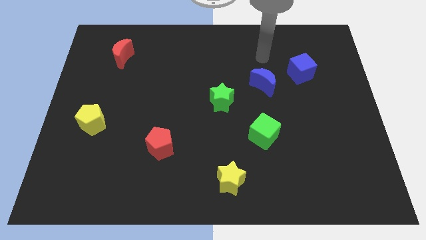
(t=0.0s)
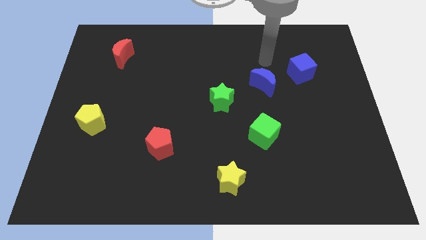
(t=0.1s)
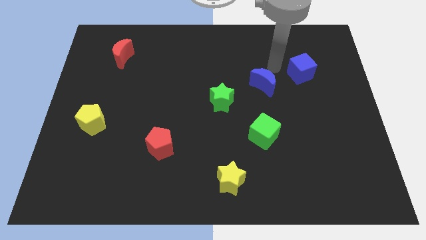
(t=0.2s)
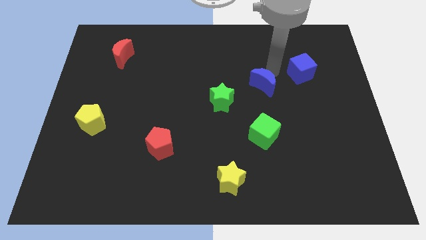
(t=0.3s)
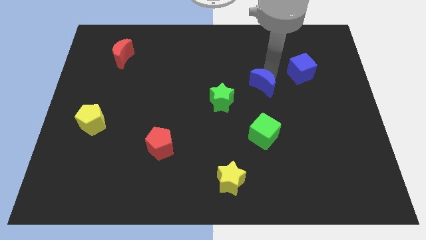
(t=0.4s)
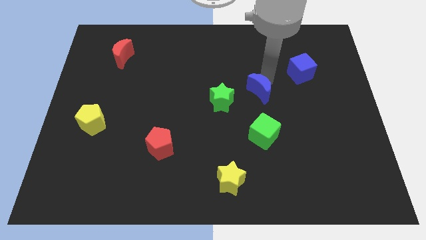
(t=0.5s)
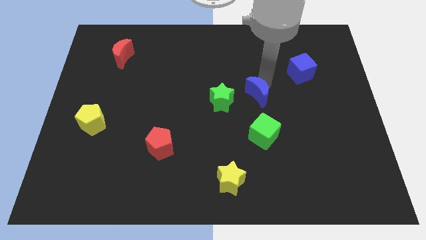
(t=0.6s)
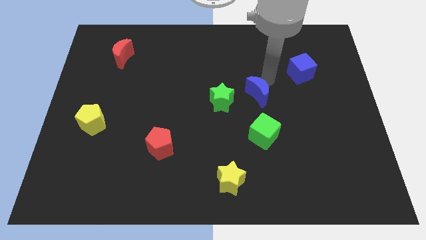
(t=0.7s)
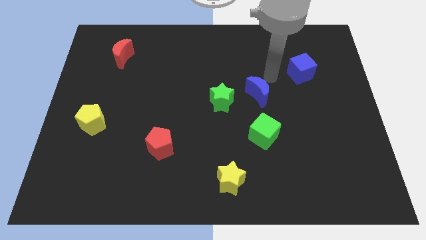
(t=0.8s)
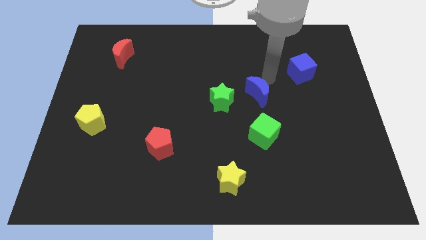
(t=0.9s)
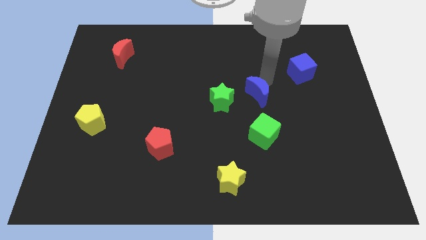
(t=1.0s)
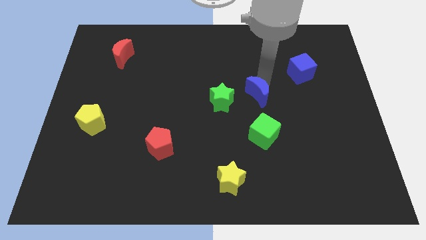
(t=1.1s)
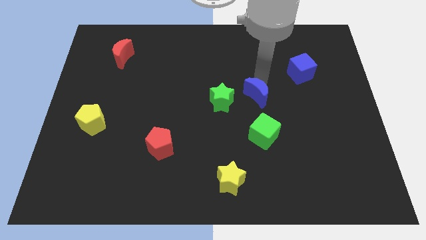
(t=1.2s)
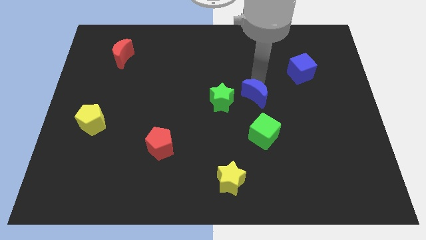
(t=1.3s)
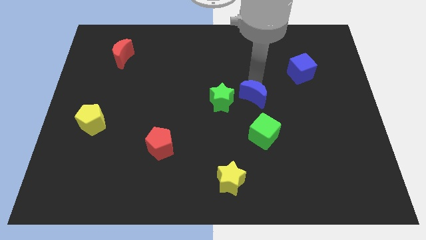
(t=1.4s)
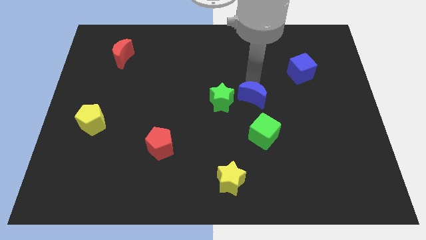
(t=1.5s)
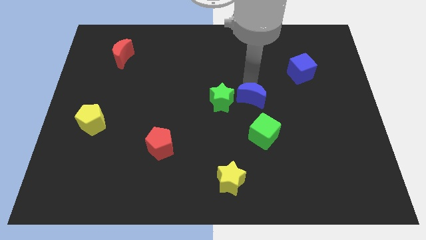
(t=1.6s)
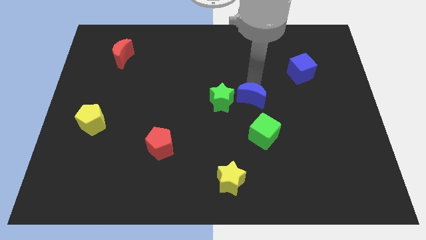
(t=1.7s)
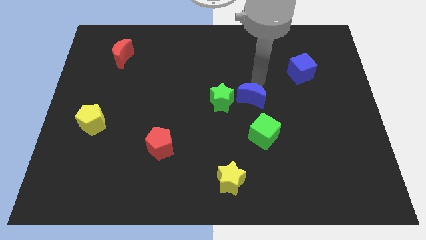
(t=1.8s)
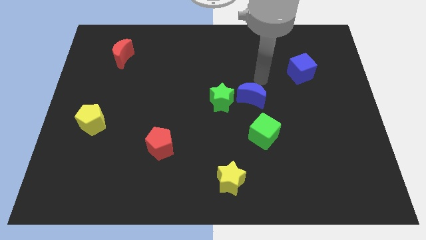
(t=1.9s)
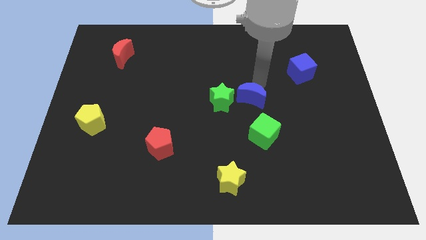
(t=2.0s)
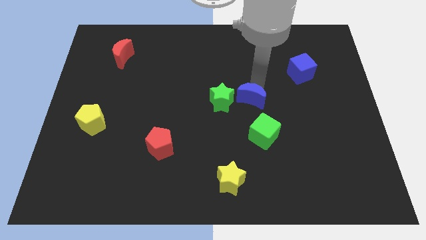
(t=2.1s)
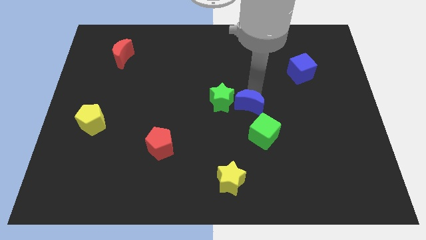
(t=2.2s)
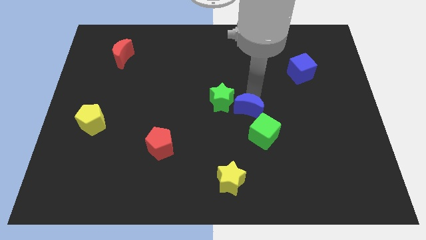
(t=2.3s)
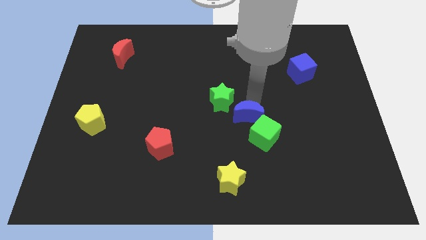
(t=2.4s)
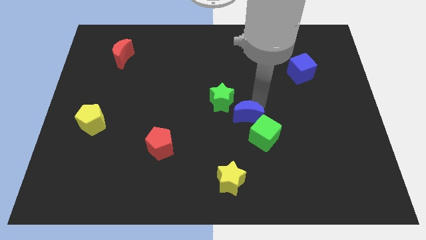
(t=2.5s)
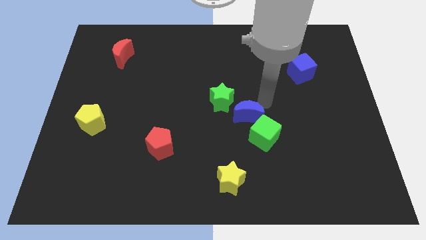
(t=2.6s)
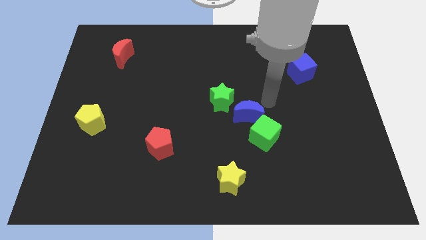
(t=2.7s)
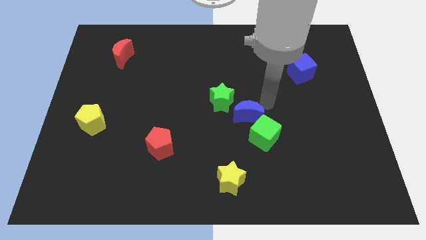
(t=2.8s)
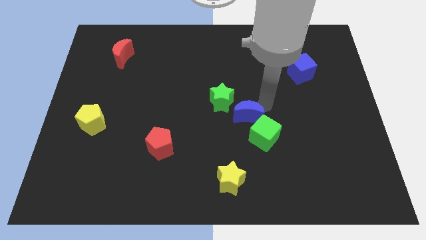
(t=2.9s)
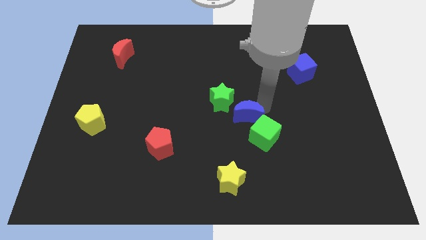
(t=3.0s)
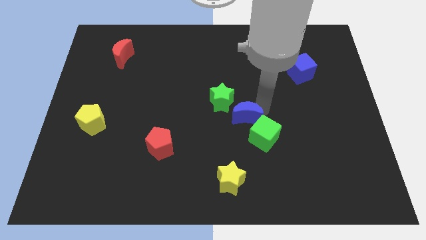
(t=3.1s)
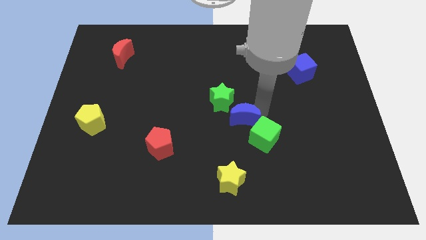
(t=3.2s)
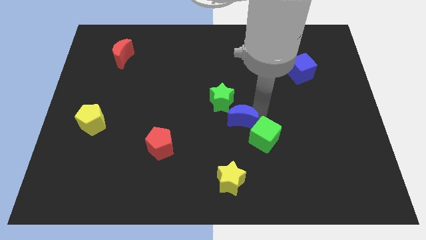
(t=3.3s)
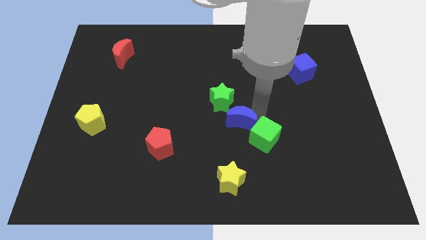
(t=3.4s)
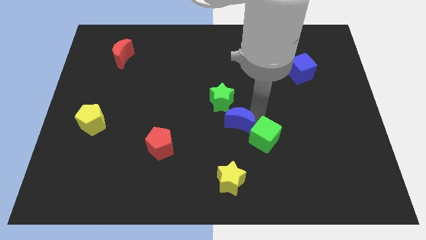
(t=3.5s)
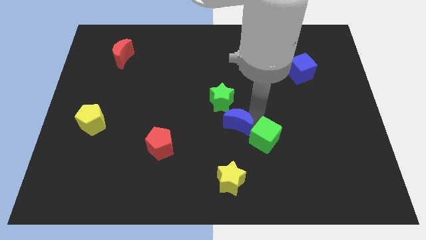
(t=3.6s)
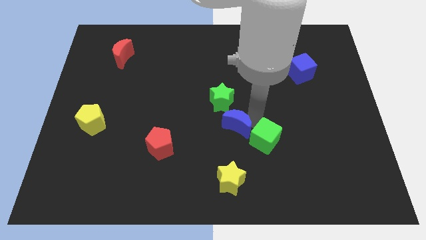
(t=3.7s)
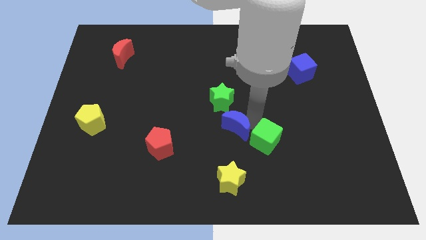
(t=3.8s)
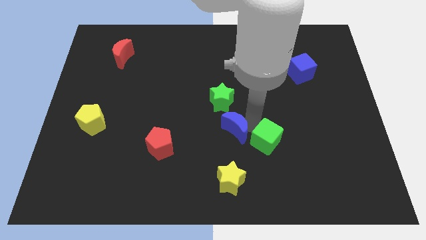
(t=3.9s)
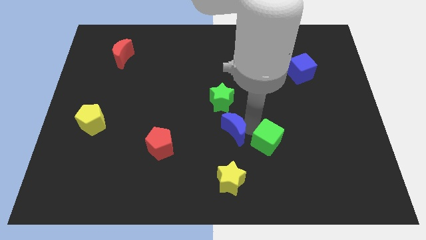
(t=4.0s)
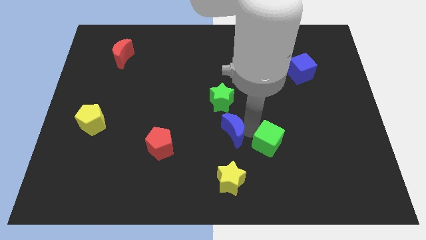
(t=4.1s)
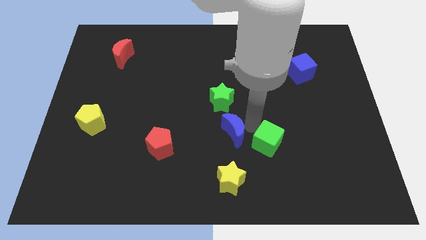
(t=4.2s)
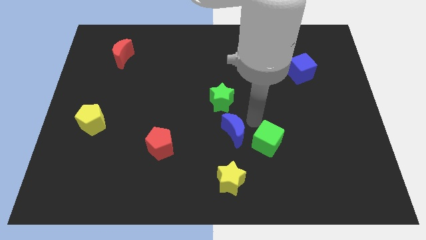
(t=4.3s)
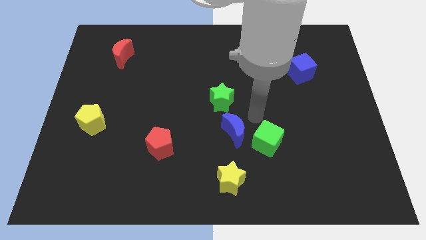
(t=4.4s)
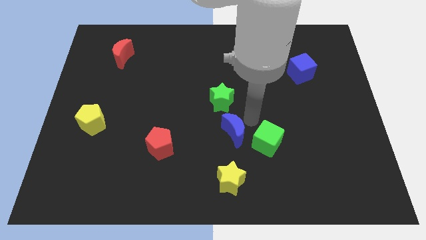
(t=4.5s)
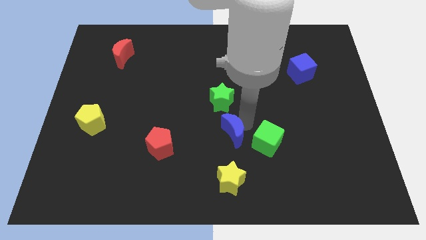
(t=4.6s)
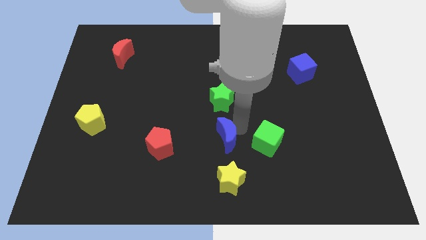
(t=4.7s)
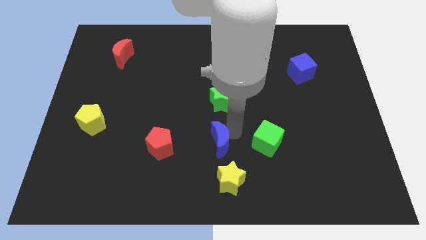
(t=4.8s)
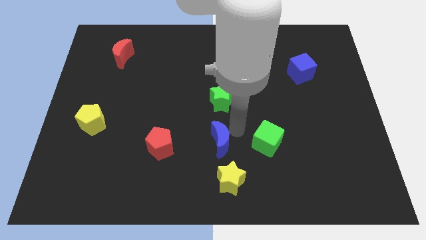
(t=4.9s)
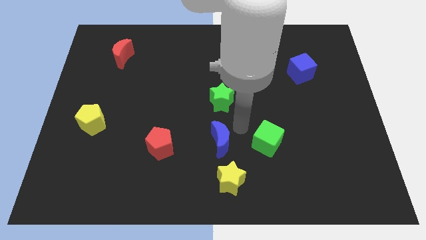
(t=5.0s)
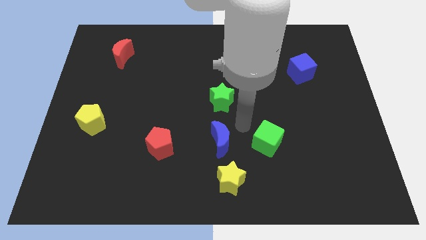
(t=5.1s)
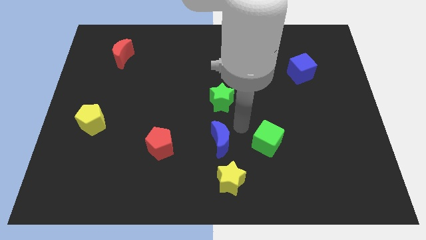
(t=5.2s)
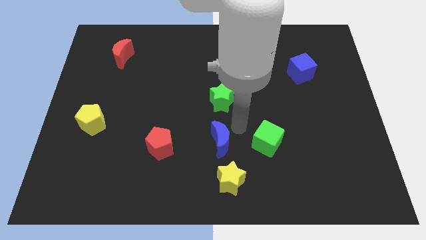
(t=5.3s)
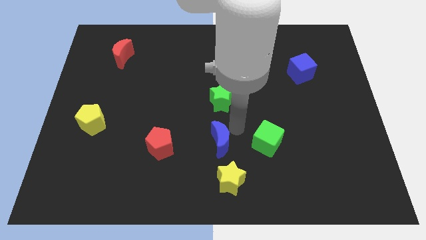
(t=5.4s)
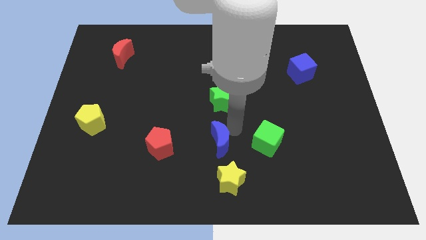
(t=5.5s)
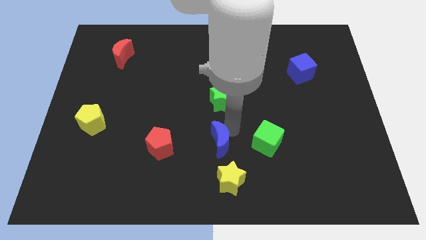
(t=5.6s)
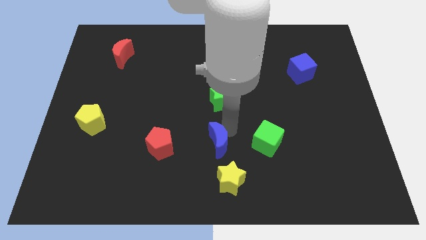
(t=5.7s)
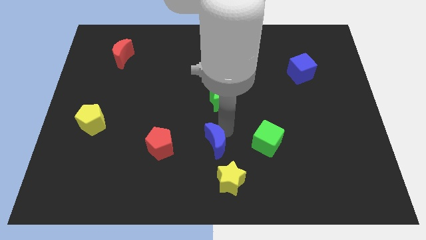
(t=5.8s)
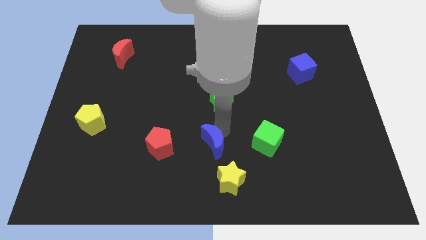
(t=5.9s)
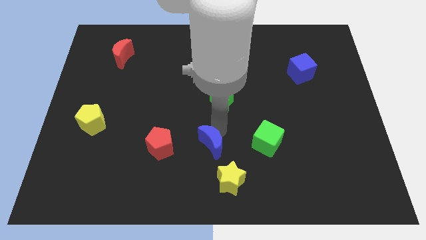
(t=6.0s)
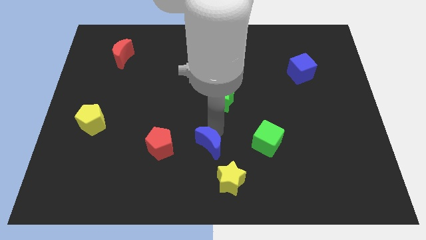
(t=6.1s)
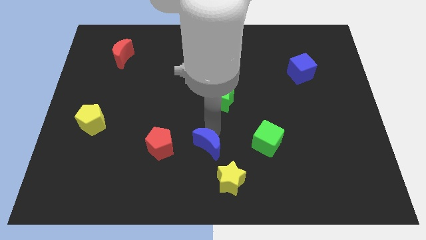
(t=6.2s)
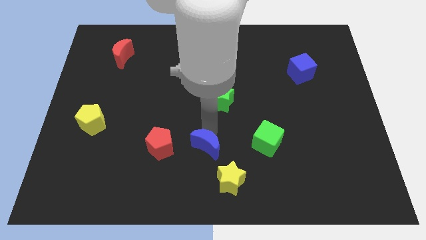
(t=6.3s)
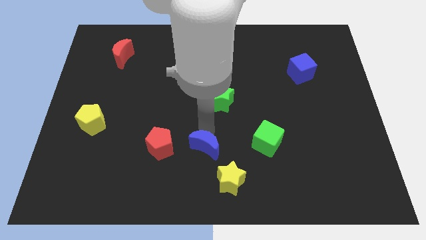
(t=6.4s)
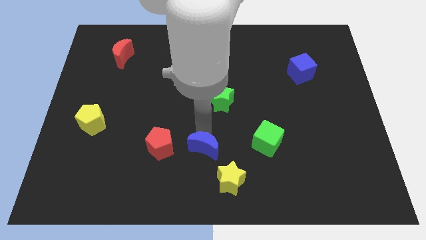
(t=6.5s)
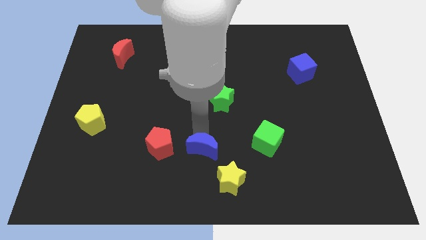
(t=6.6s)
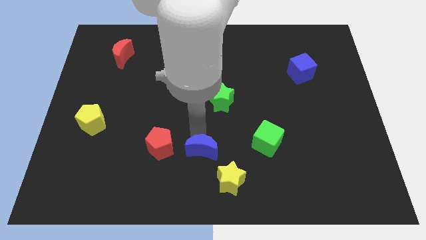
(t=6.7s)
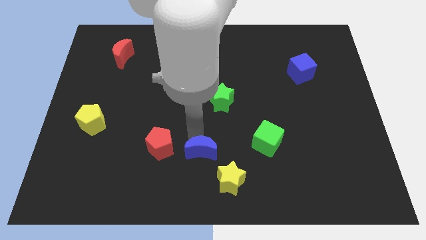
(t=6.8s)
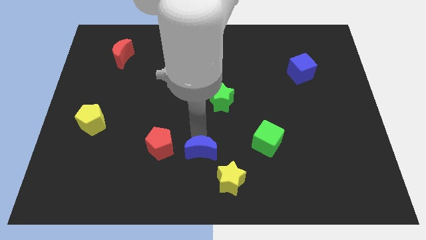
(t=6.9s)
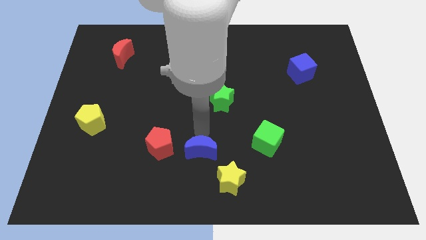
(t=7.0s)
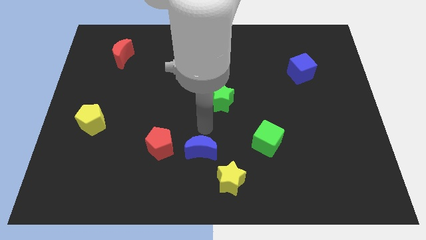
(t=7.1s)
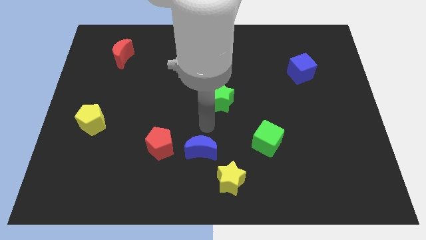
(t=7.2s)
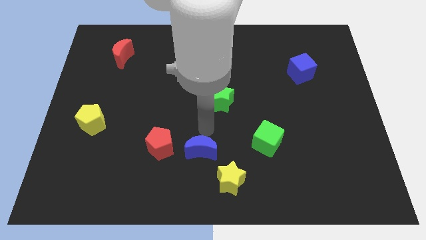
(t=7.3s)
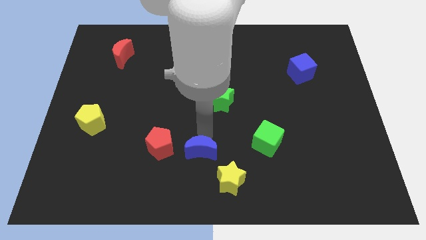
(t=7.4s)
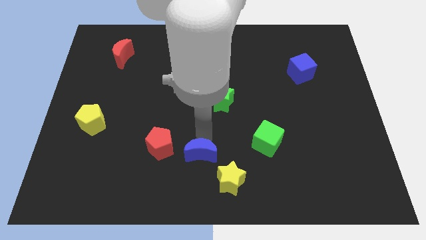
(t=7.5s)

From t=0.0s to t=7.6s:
move the blue moon to the bottom
